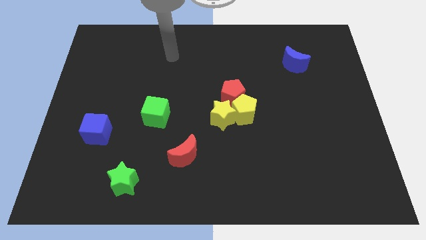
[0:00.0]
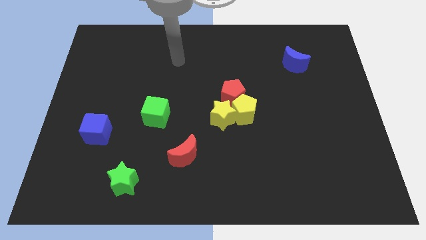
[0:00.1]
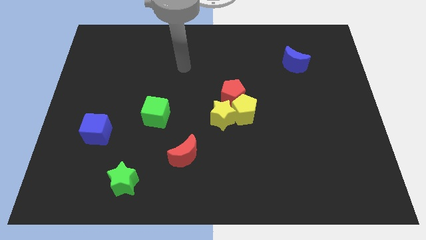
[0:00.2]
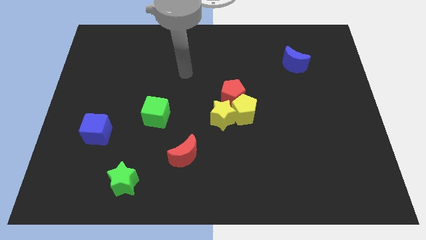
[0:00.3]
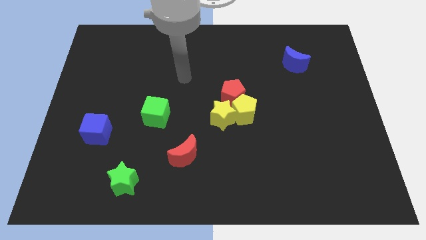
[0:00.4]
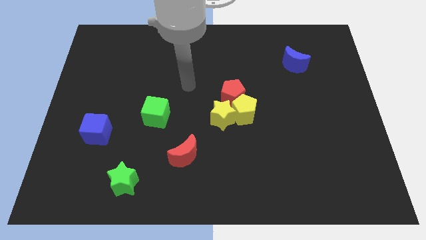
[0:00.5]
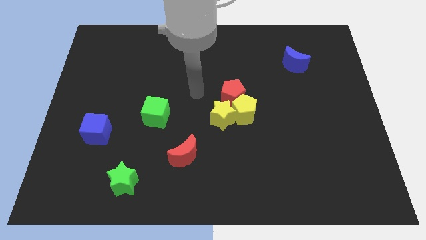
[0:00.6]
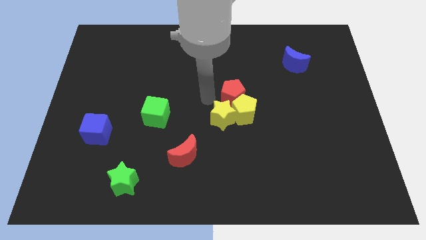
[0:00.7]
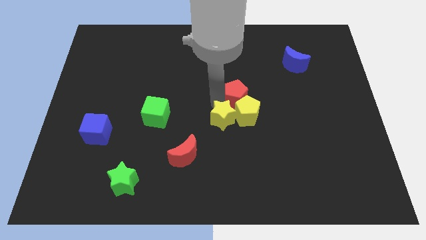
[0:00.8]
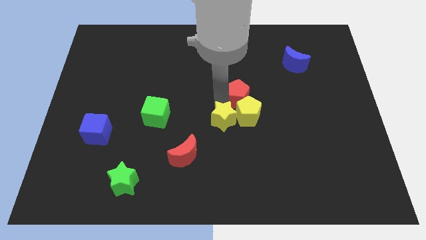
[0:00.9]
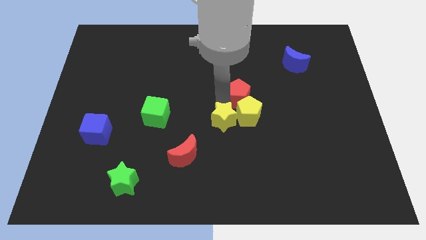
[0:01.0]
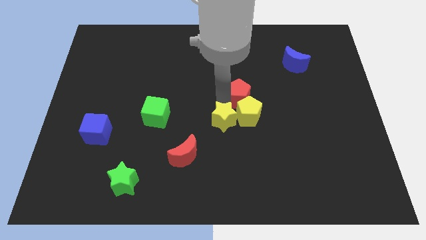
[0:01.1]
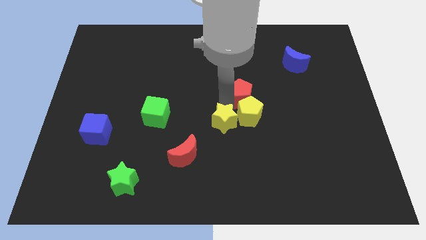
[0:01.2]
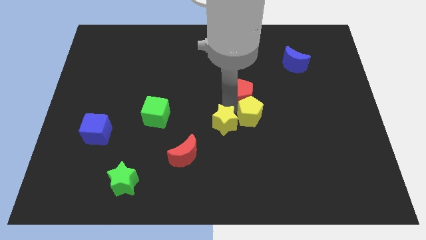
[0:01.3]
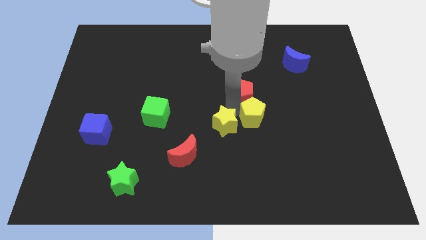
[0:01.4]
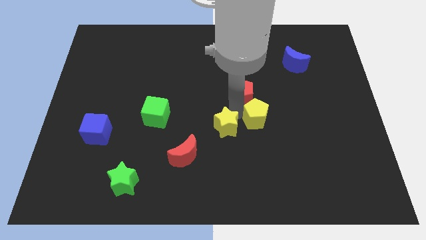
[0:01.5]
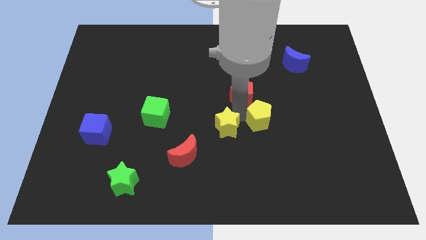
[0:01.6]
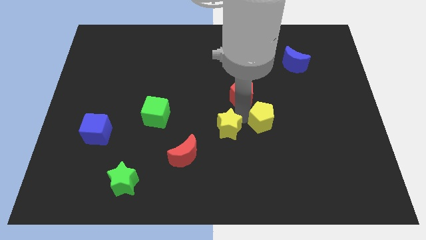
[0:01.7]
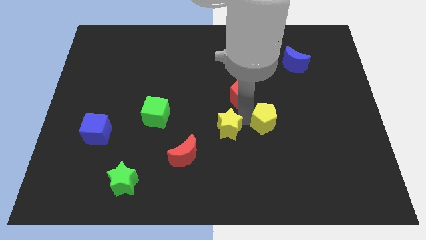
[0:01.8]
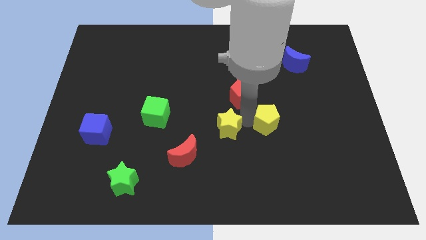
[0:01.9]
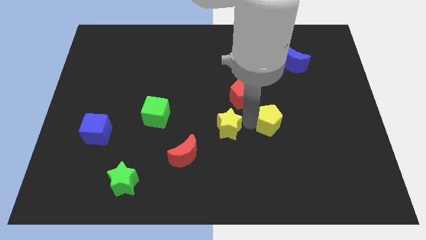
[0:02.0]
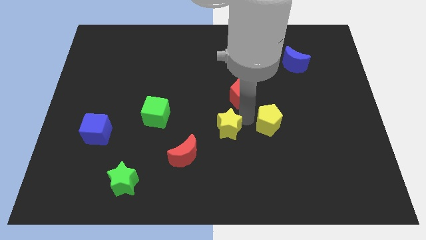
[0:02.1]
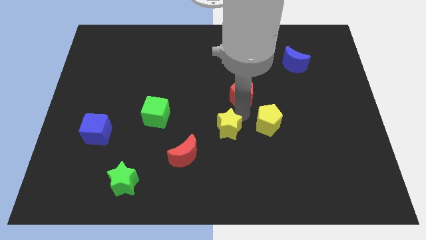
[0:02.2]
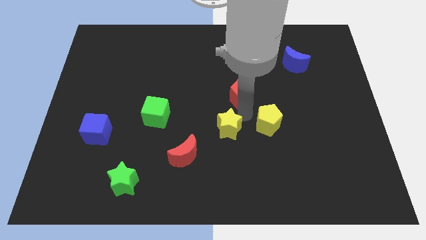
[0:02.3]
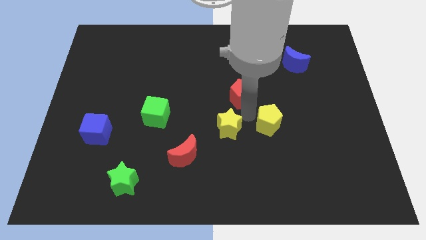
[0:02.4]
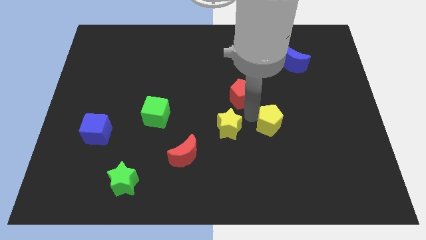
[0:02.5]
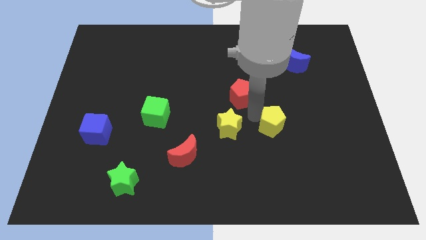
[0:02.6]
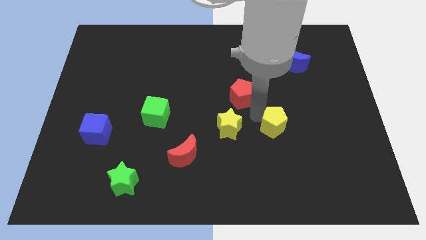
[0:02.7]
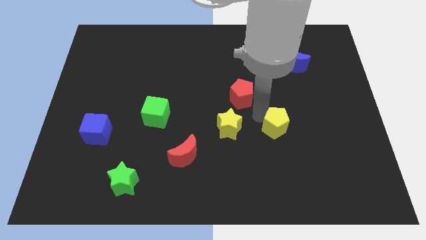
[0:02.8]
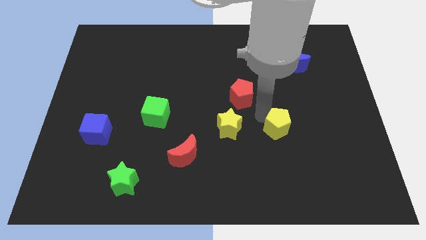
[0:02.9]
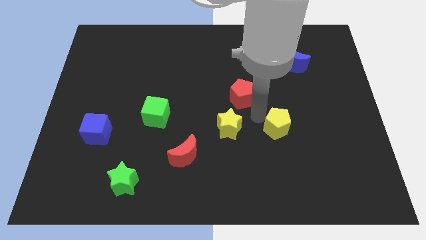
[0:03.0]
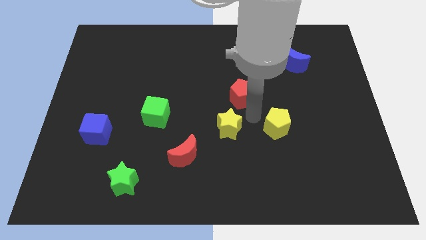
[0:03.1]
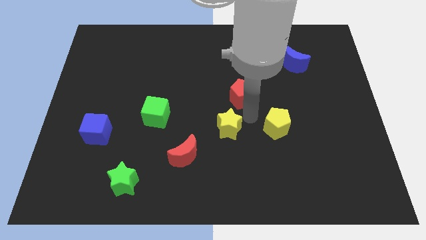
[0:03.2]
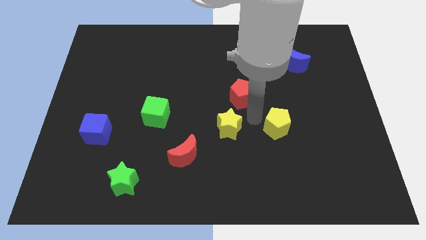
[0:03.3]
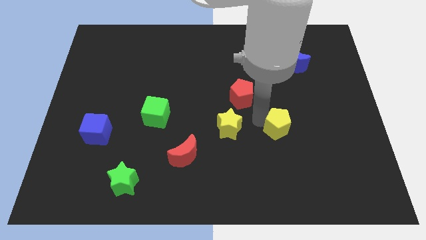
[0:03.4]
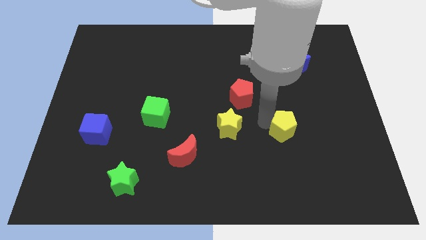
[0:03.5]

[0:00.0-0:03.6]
move the yellow pentagon away from the yellow star and red pentagon

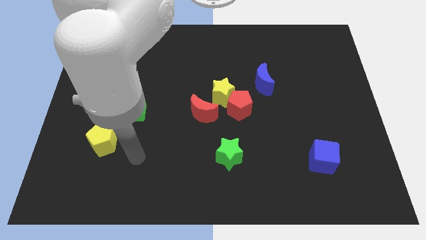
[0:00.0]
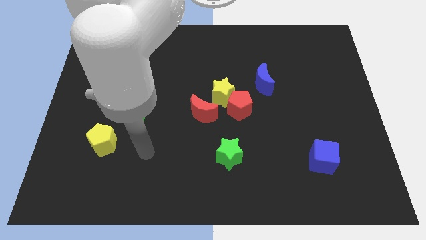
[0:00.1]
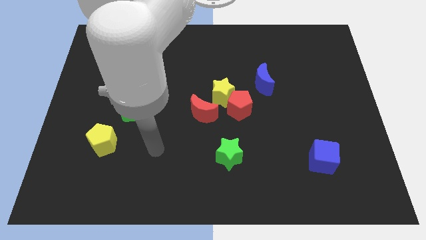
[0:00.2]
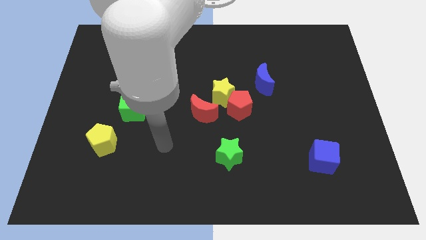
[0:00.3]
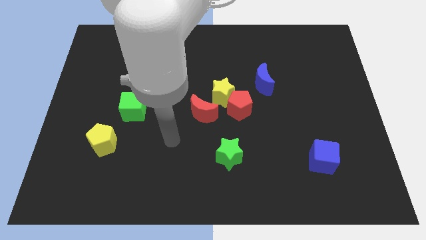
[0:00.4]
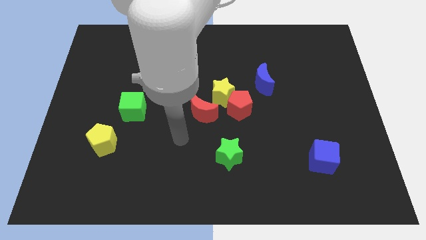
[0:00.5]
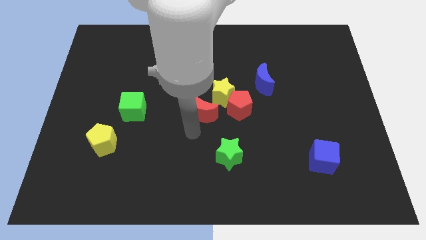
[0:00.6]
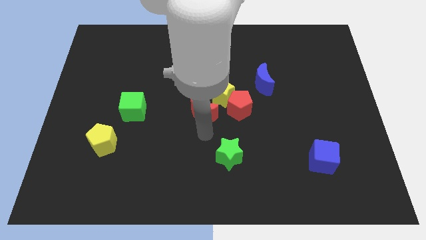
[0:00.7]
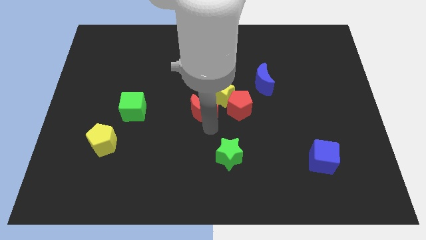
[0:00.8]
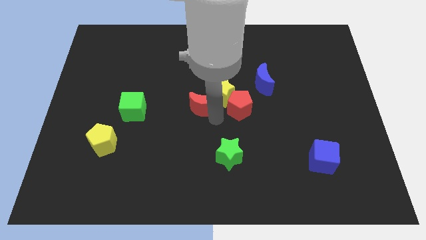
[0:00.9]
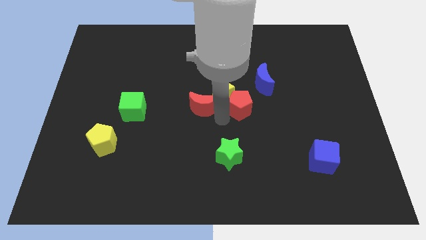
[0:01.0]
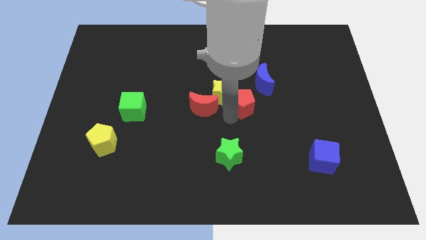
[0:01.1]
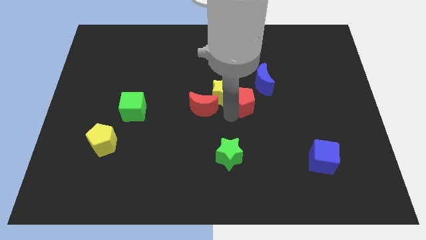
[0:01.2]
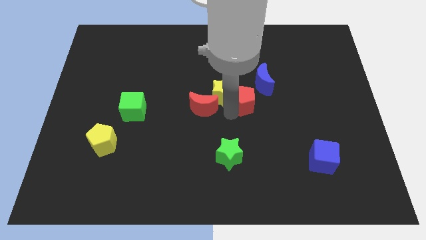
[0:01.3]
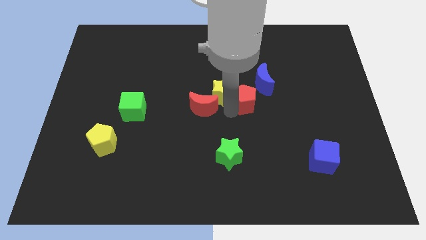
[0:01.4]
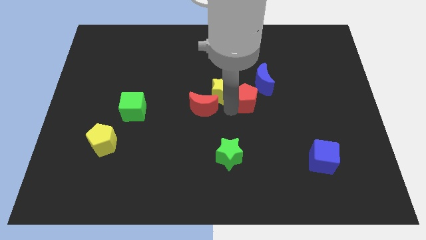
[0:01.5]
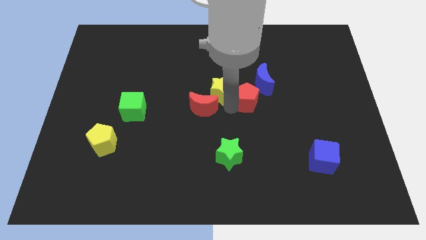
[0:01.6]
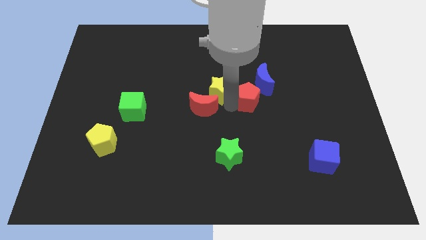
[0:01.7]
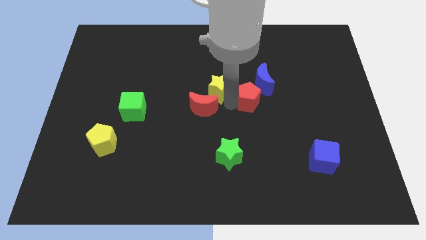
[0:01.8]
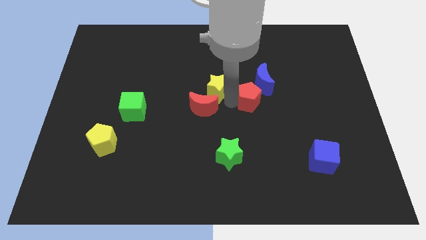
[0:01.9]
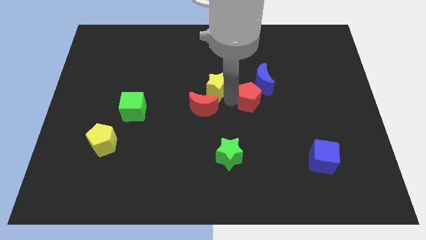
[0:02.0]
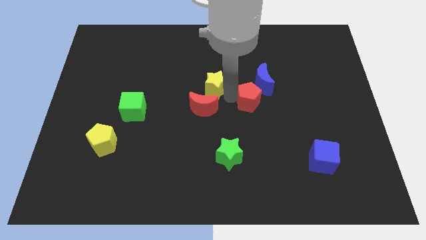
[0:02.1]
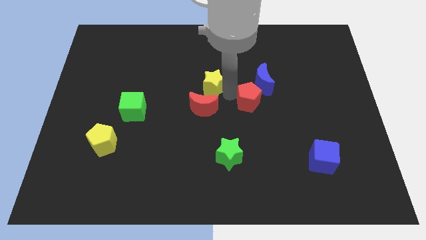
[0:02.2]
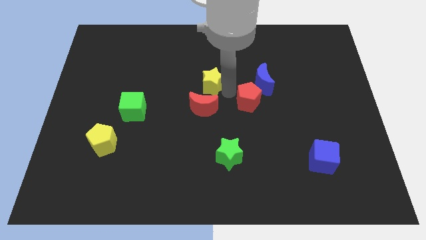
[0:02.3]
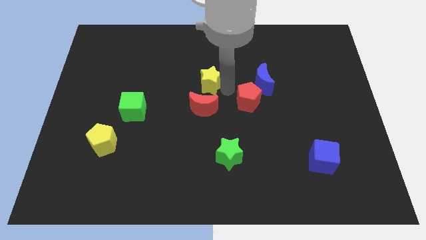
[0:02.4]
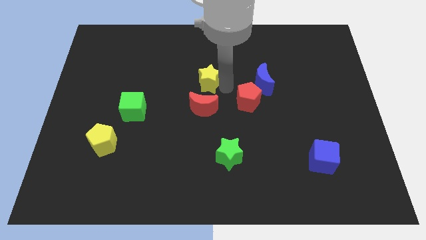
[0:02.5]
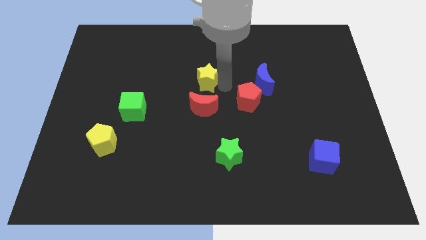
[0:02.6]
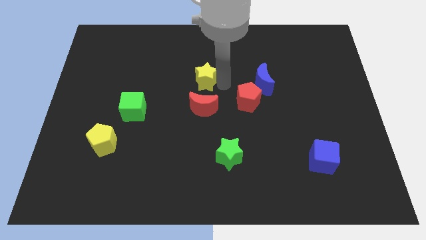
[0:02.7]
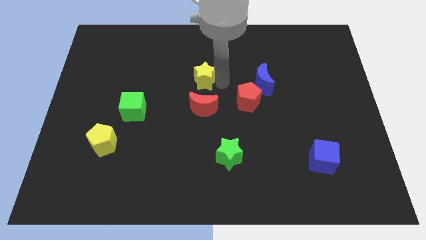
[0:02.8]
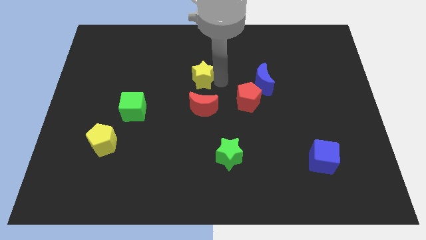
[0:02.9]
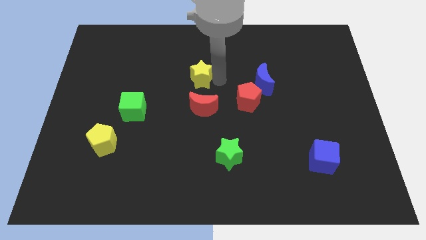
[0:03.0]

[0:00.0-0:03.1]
separate the yellow star from the red pentagon and red moon

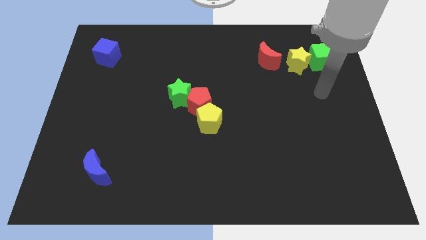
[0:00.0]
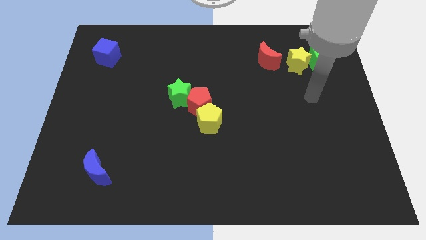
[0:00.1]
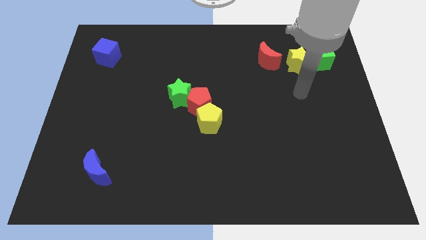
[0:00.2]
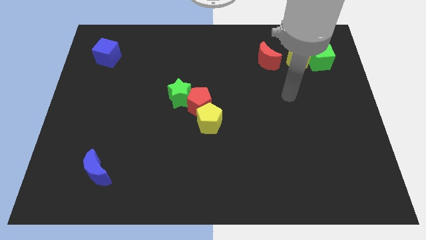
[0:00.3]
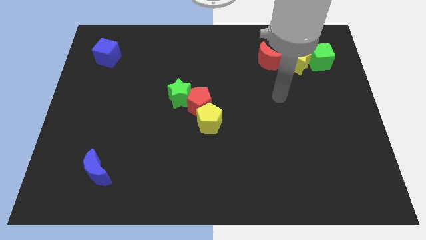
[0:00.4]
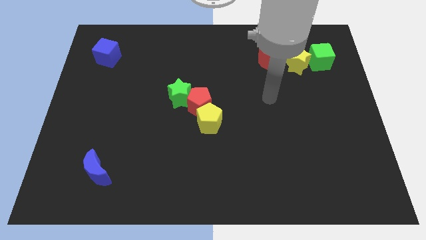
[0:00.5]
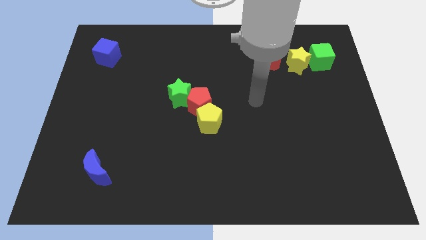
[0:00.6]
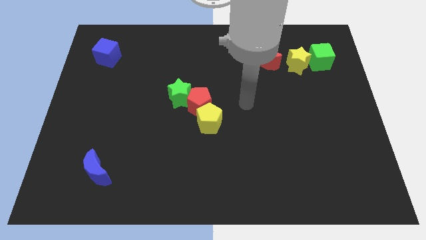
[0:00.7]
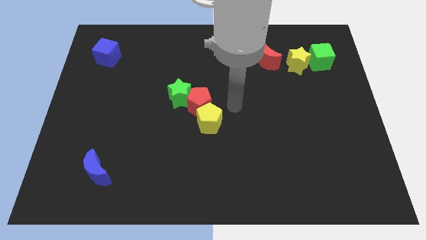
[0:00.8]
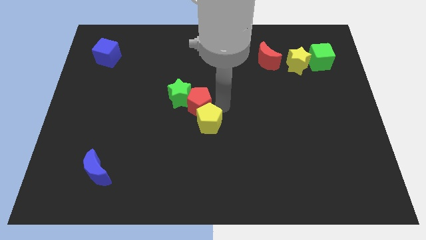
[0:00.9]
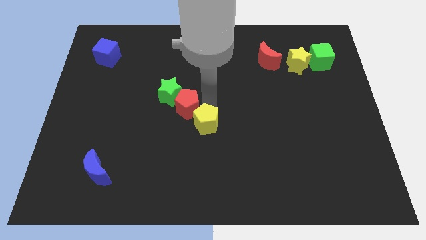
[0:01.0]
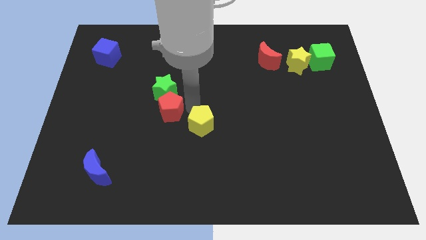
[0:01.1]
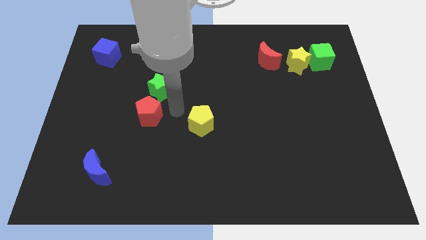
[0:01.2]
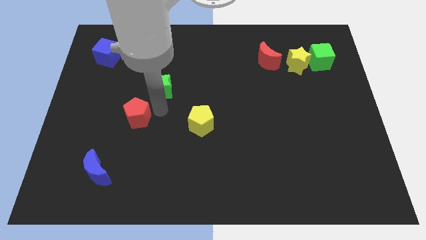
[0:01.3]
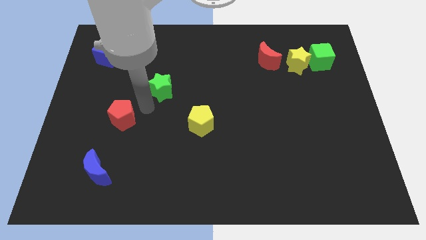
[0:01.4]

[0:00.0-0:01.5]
pull the green star apart from the red pentagon

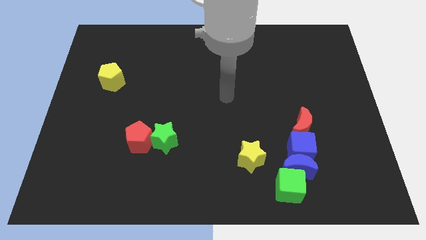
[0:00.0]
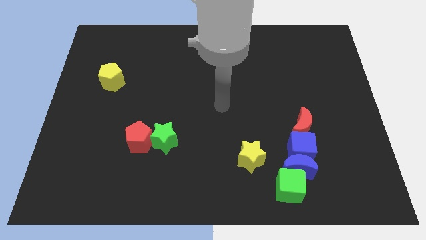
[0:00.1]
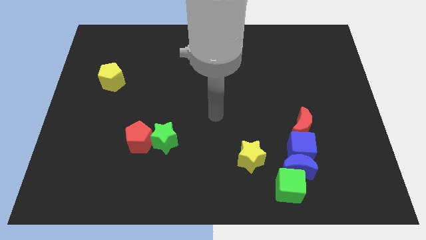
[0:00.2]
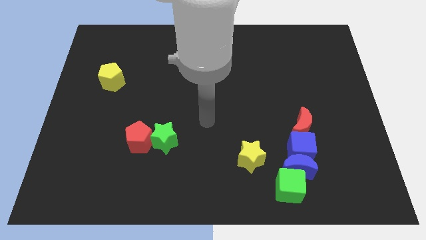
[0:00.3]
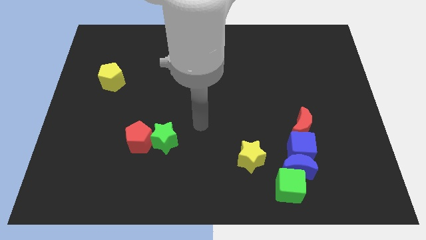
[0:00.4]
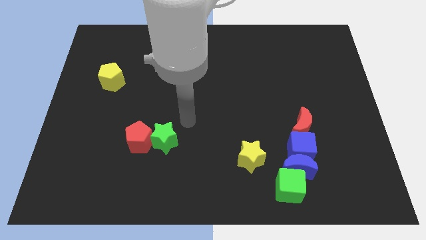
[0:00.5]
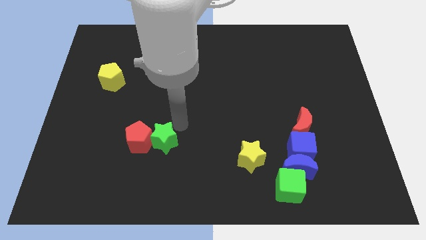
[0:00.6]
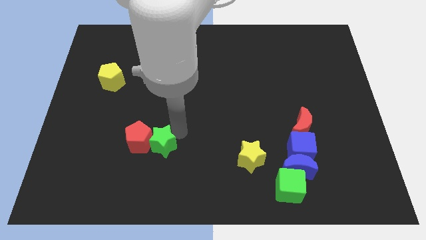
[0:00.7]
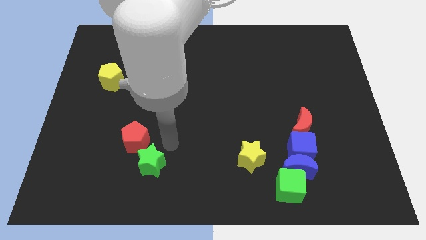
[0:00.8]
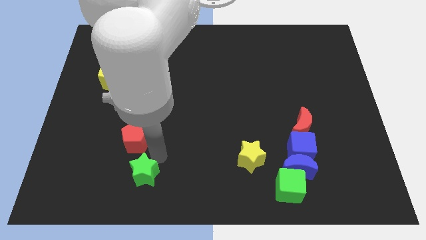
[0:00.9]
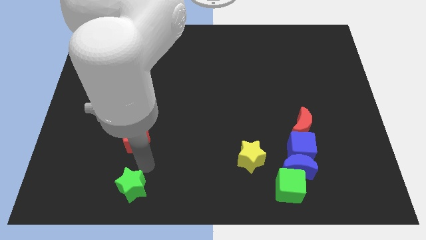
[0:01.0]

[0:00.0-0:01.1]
pull the red pentagon apart from the green star

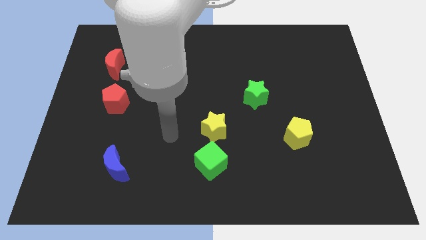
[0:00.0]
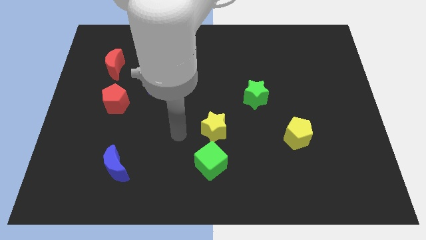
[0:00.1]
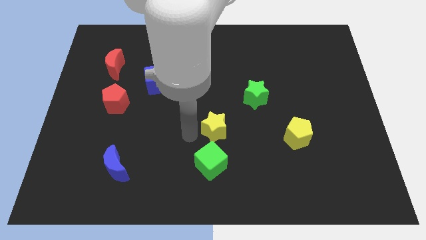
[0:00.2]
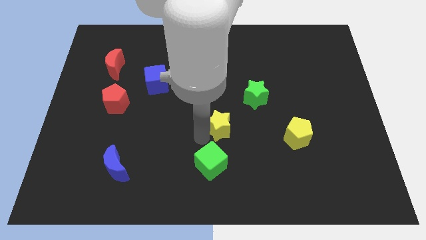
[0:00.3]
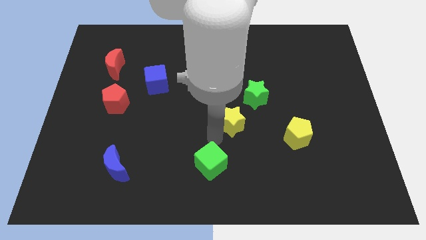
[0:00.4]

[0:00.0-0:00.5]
separate the green cube from the yellow star
